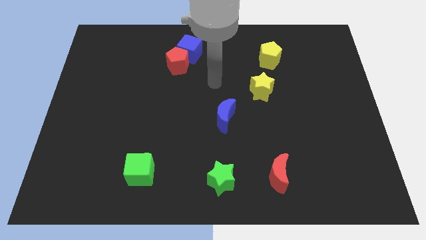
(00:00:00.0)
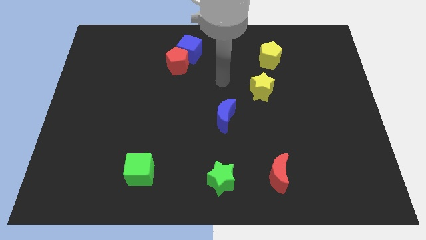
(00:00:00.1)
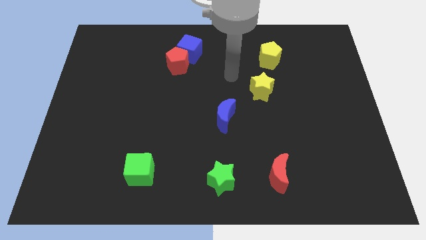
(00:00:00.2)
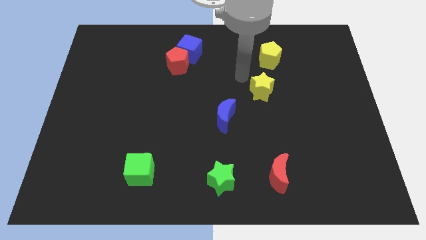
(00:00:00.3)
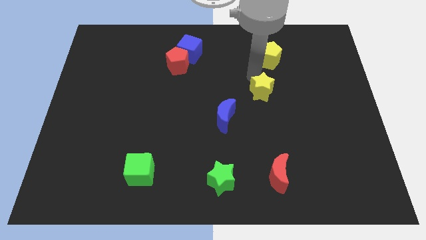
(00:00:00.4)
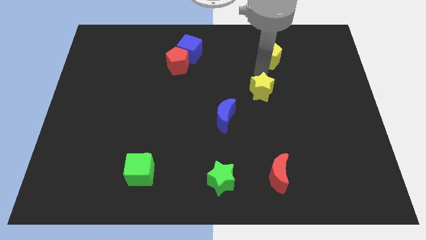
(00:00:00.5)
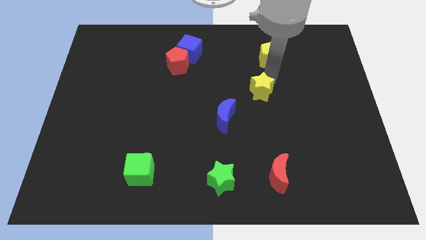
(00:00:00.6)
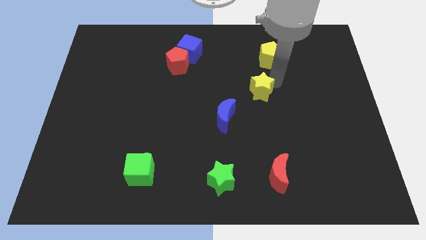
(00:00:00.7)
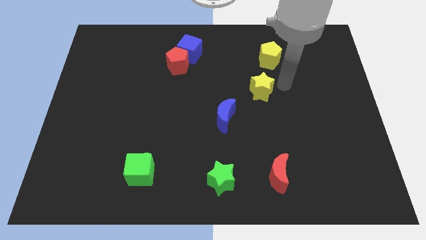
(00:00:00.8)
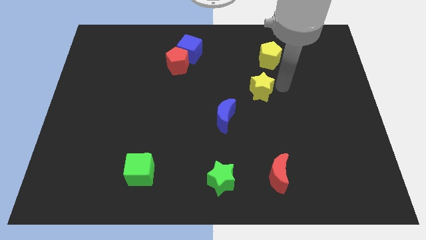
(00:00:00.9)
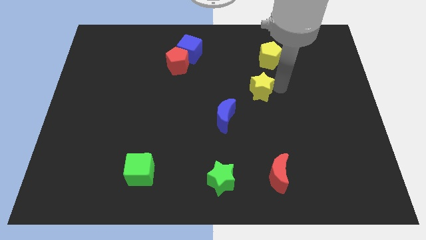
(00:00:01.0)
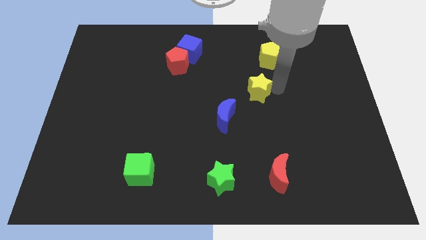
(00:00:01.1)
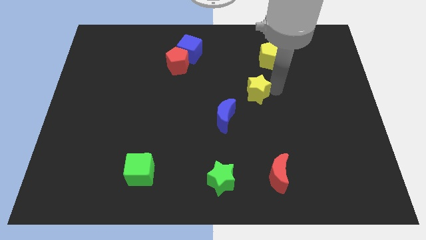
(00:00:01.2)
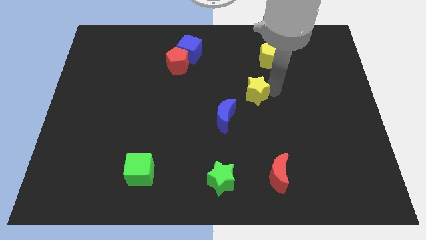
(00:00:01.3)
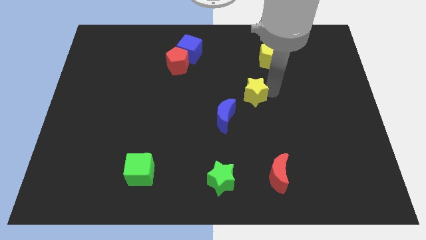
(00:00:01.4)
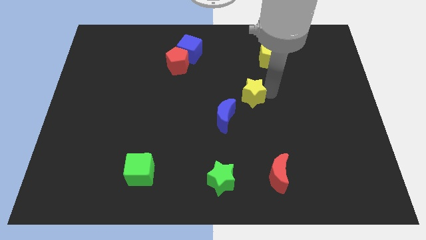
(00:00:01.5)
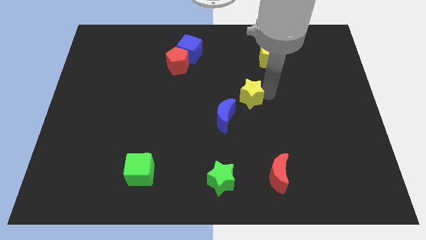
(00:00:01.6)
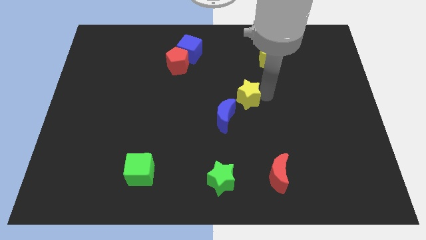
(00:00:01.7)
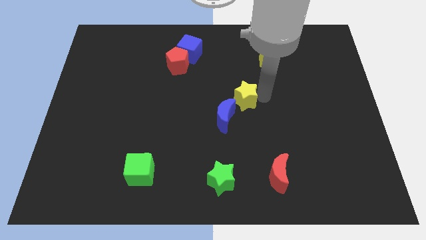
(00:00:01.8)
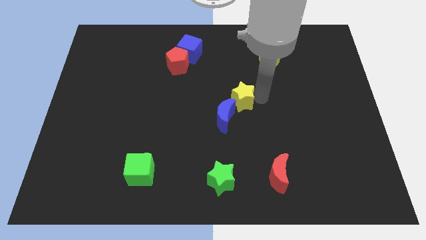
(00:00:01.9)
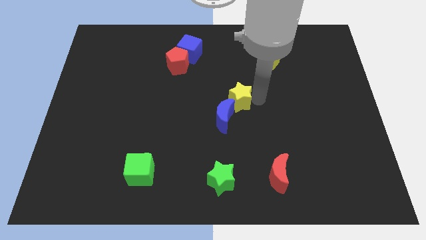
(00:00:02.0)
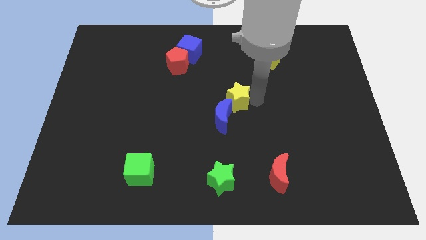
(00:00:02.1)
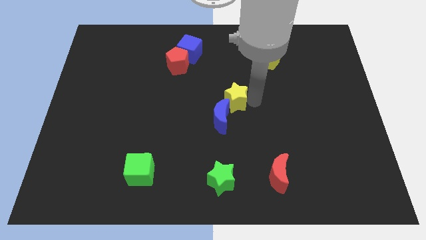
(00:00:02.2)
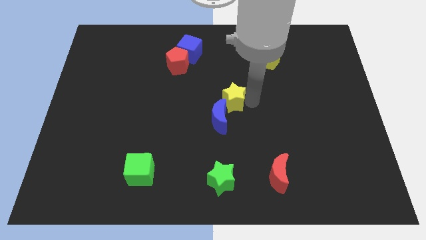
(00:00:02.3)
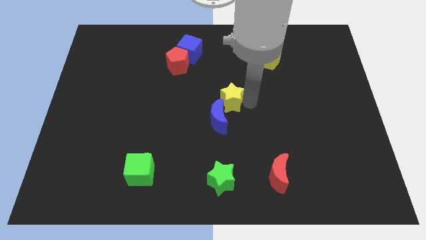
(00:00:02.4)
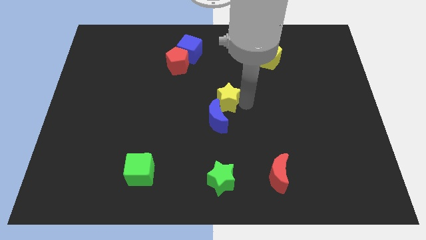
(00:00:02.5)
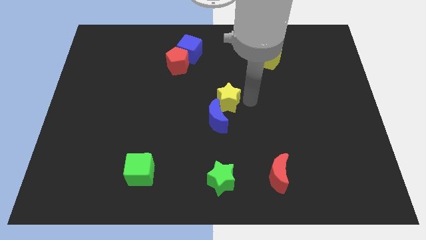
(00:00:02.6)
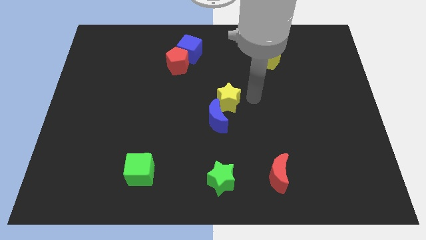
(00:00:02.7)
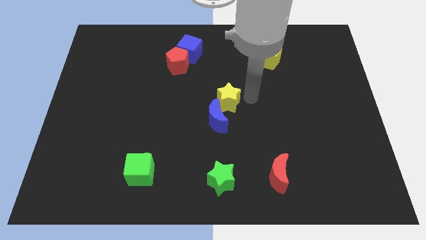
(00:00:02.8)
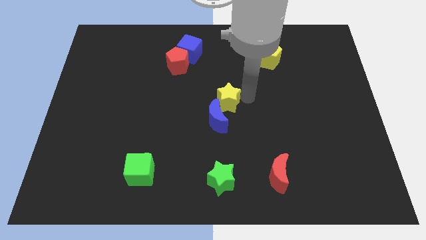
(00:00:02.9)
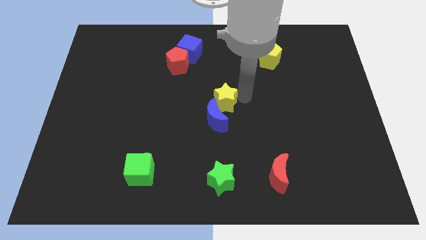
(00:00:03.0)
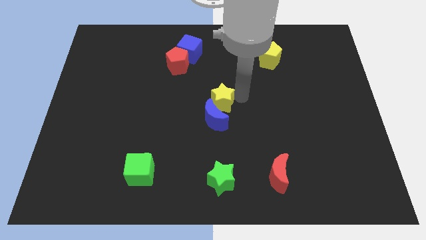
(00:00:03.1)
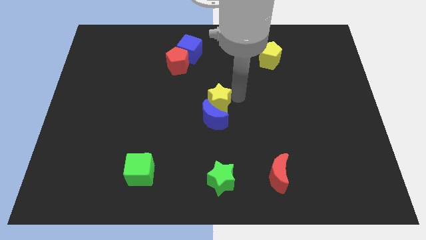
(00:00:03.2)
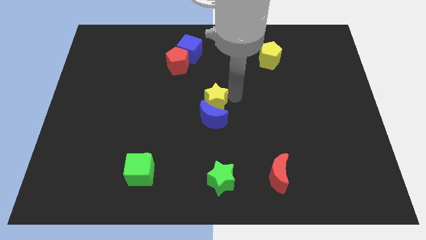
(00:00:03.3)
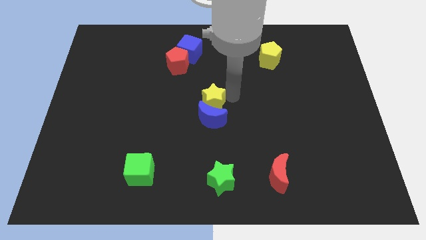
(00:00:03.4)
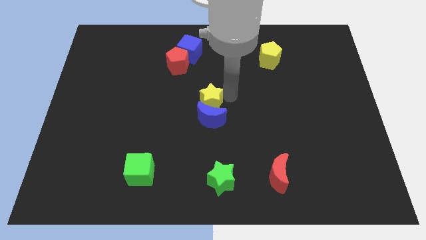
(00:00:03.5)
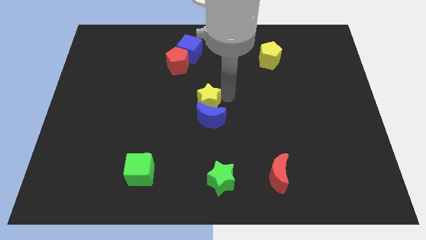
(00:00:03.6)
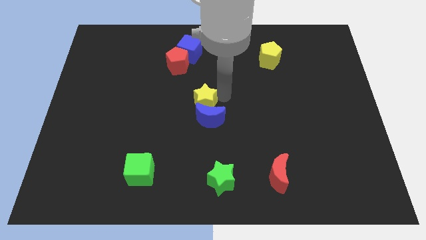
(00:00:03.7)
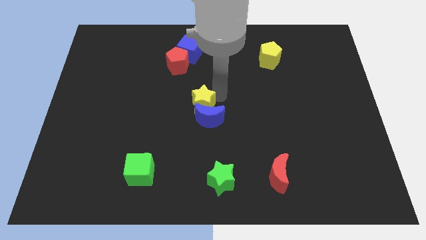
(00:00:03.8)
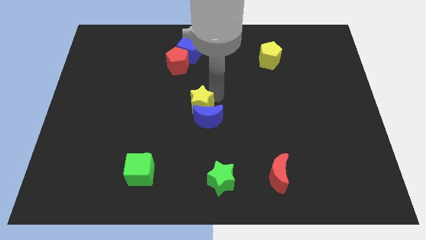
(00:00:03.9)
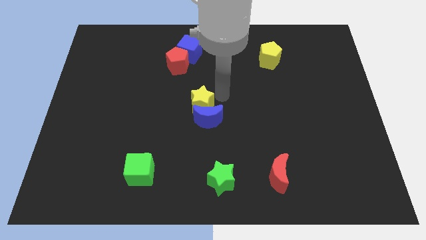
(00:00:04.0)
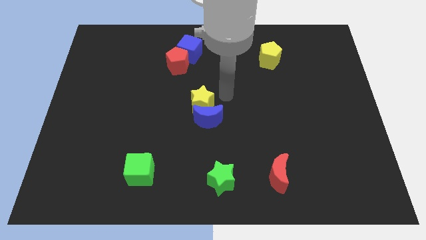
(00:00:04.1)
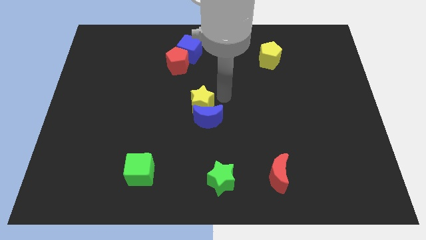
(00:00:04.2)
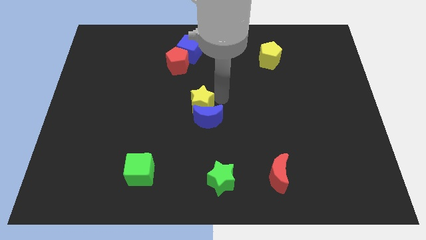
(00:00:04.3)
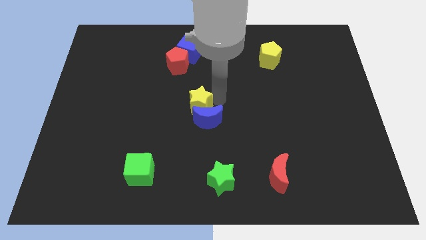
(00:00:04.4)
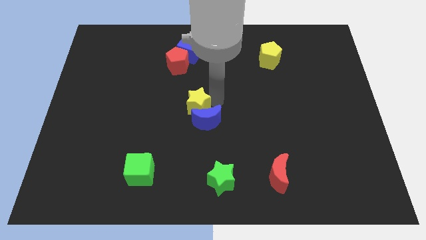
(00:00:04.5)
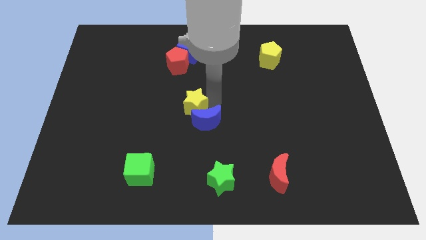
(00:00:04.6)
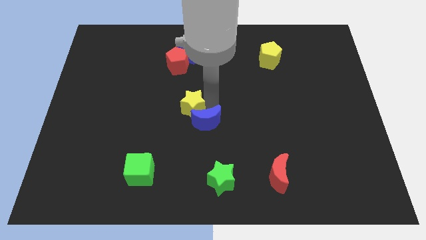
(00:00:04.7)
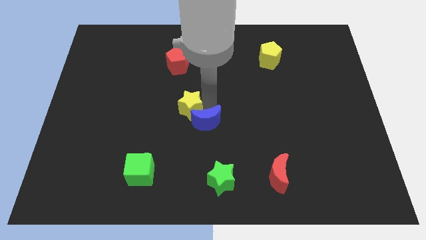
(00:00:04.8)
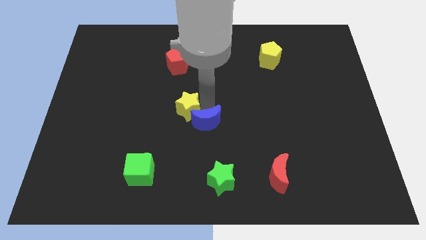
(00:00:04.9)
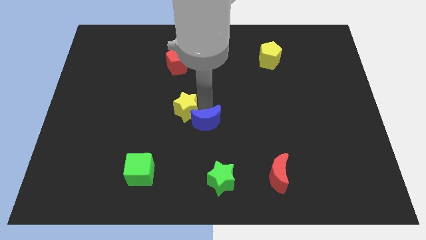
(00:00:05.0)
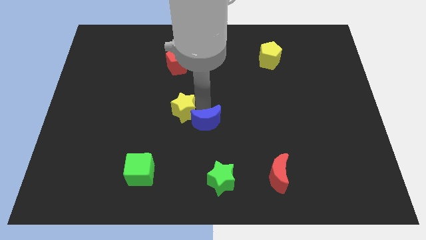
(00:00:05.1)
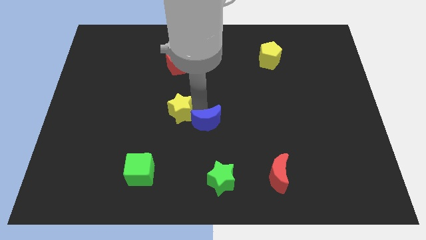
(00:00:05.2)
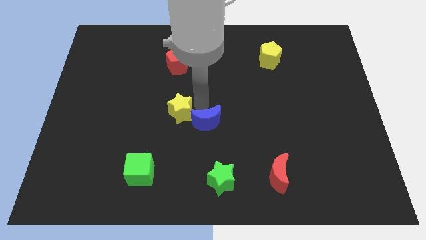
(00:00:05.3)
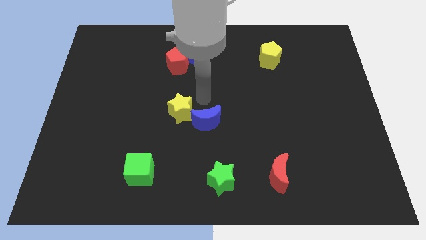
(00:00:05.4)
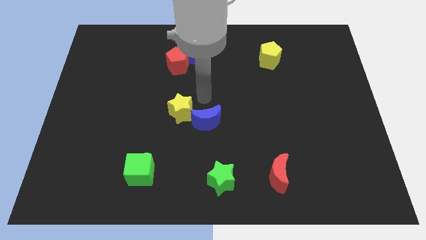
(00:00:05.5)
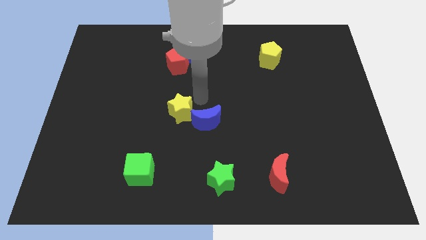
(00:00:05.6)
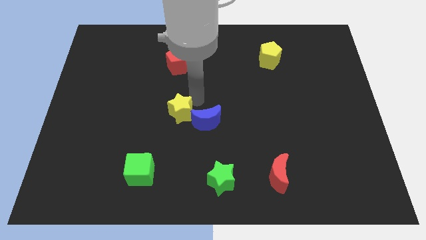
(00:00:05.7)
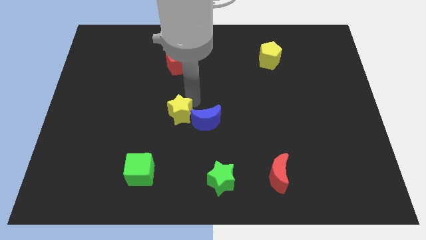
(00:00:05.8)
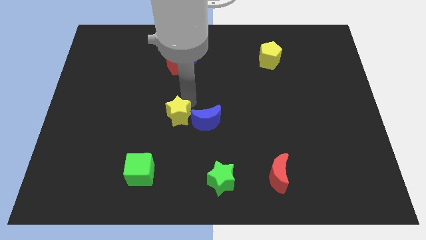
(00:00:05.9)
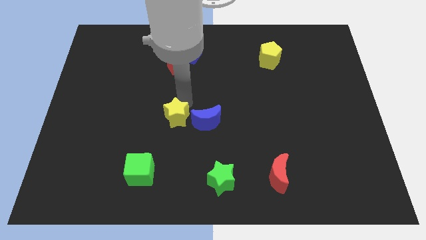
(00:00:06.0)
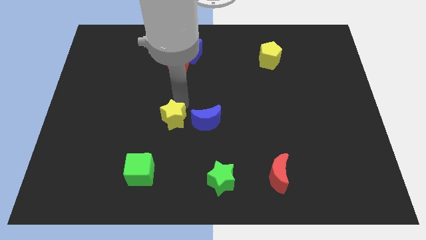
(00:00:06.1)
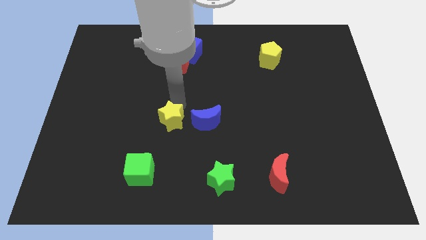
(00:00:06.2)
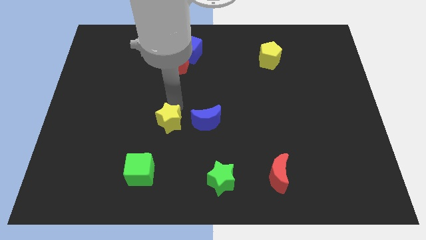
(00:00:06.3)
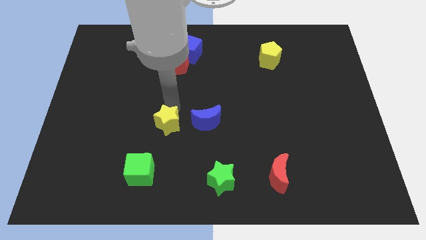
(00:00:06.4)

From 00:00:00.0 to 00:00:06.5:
slide the yellow star above the green cube
